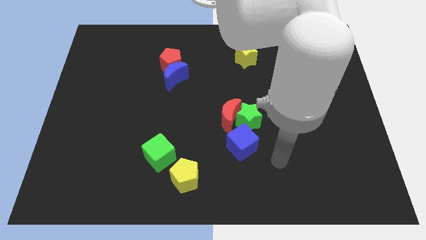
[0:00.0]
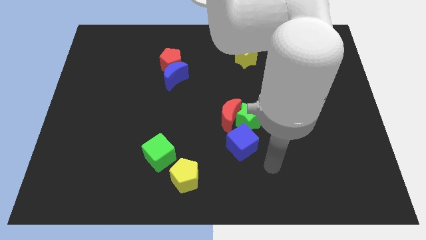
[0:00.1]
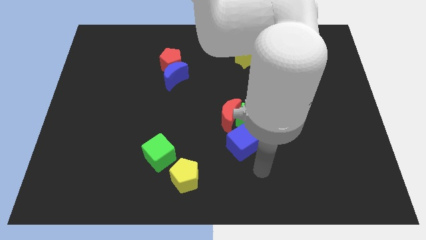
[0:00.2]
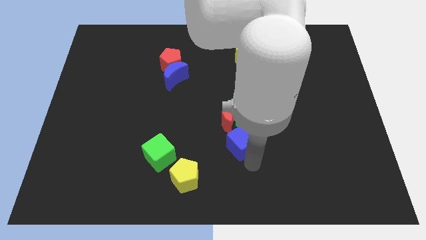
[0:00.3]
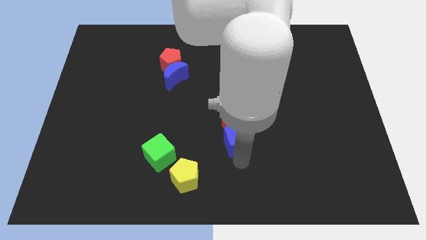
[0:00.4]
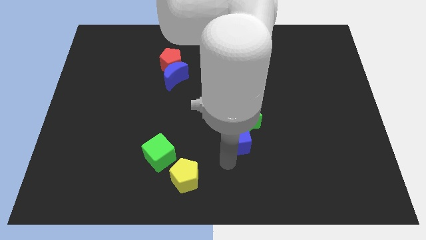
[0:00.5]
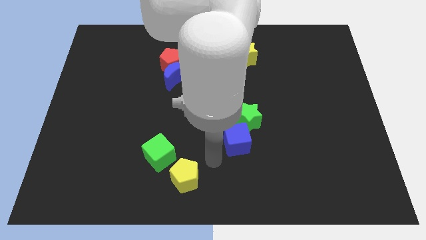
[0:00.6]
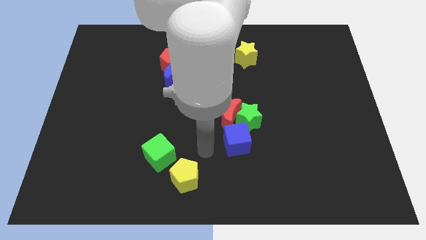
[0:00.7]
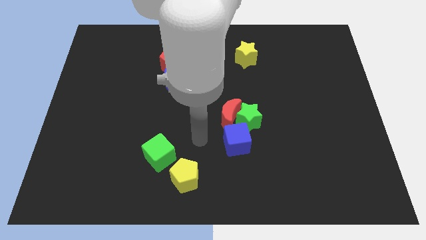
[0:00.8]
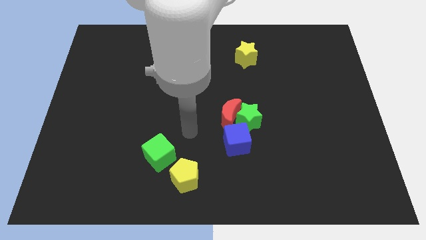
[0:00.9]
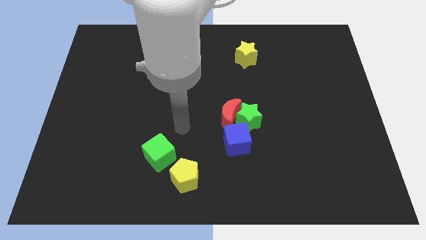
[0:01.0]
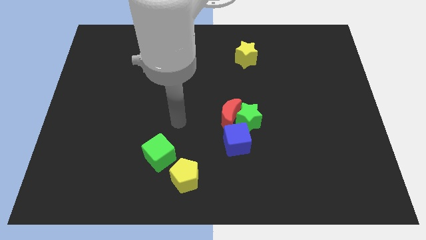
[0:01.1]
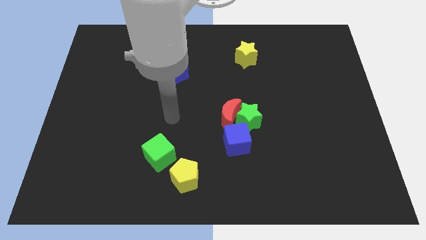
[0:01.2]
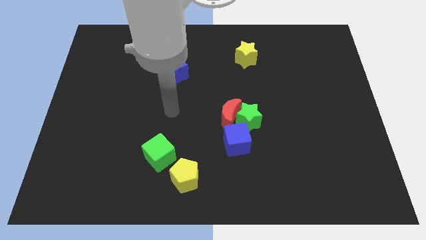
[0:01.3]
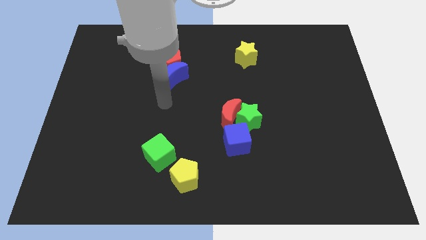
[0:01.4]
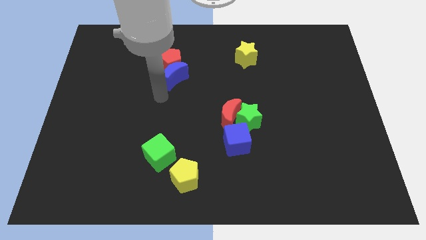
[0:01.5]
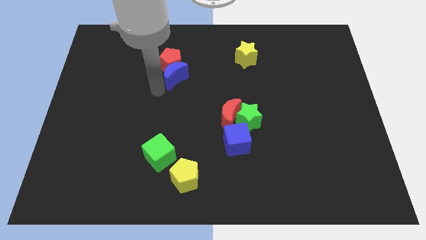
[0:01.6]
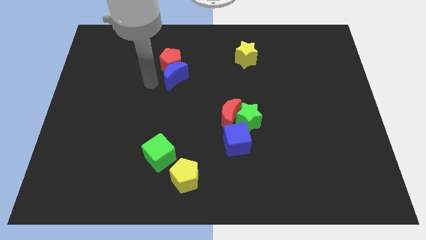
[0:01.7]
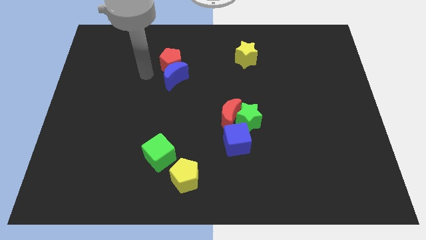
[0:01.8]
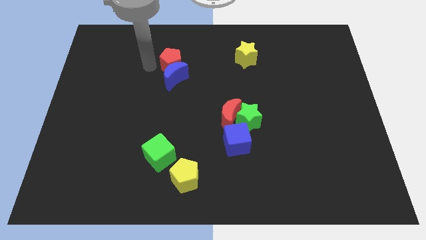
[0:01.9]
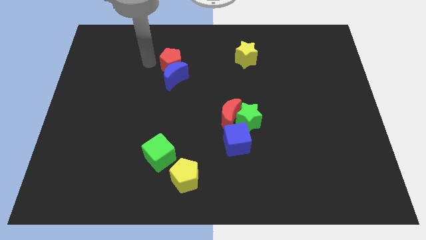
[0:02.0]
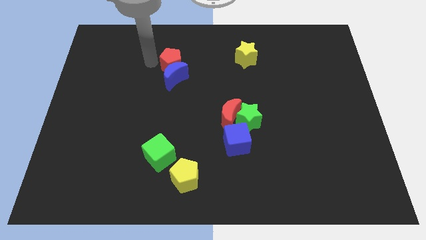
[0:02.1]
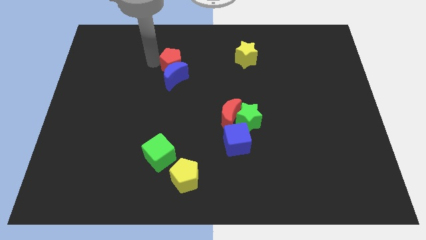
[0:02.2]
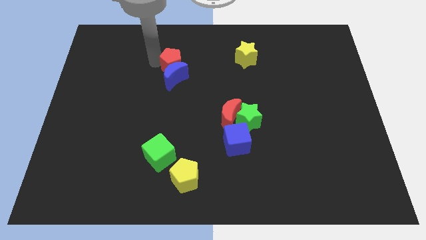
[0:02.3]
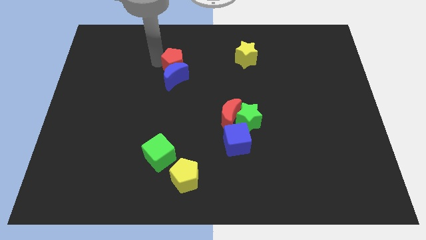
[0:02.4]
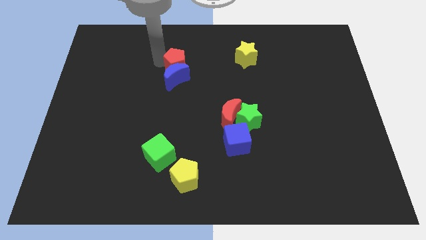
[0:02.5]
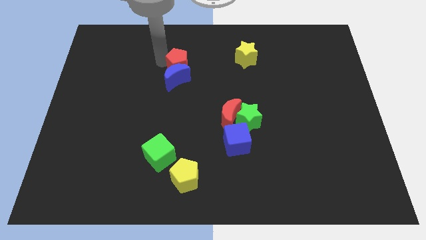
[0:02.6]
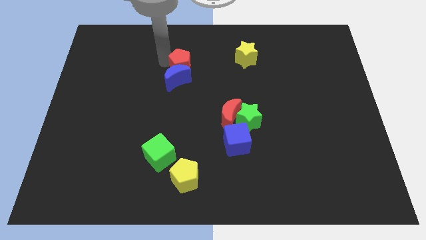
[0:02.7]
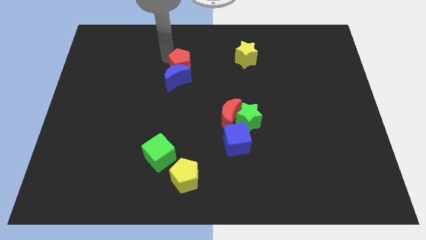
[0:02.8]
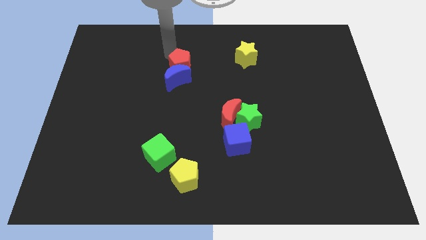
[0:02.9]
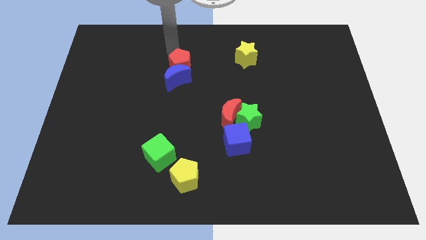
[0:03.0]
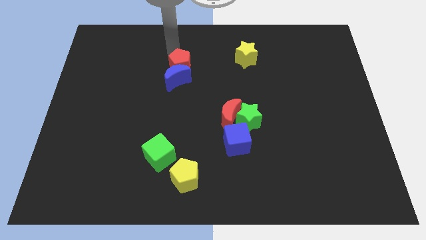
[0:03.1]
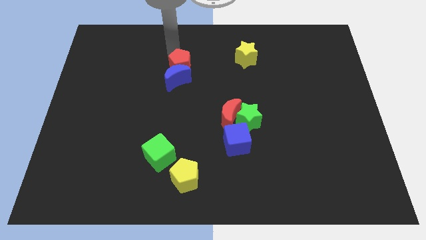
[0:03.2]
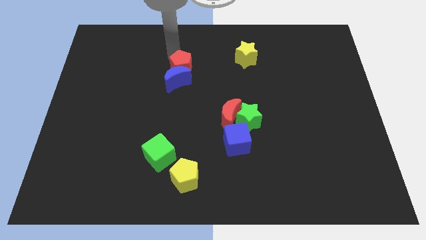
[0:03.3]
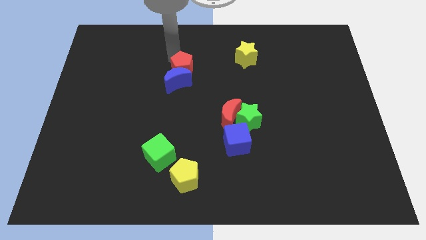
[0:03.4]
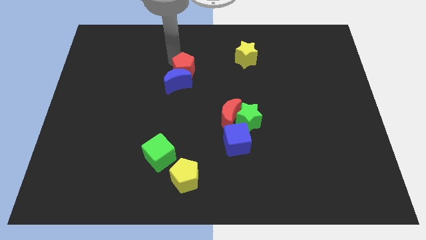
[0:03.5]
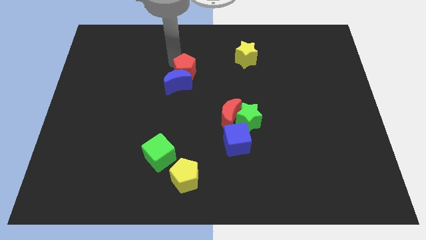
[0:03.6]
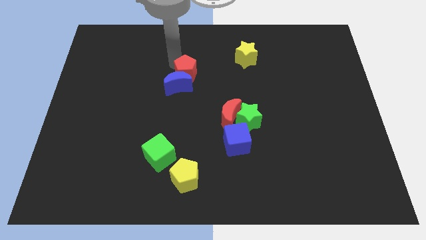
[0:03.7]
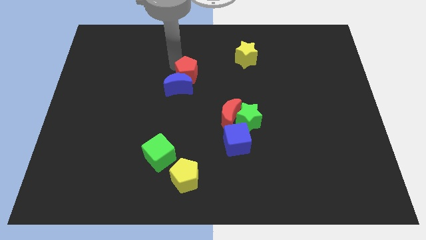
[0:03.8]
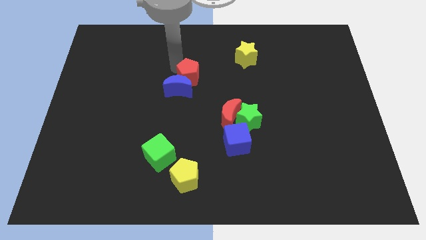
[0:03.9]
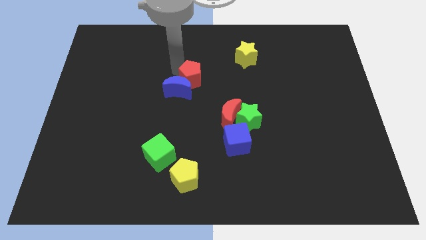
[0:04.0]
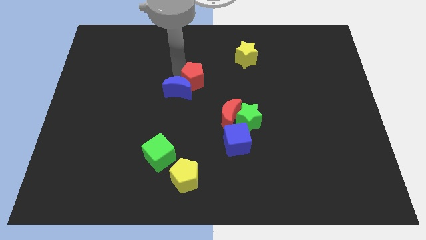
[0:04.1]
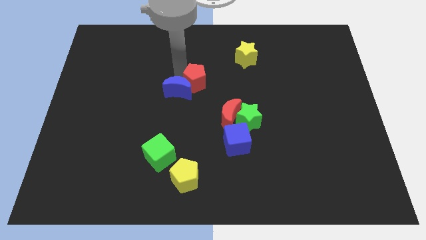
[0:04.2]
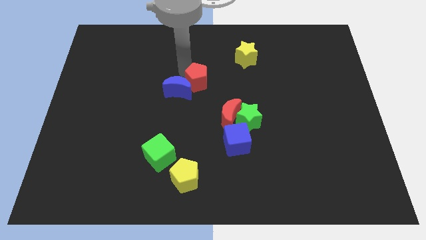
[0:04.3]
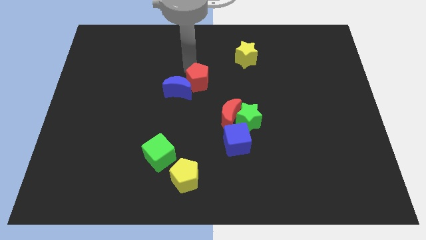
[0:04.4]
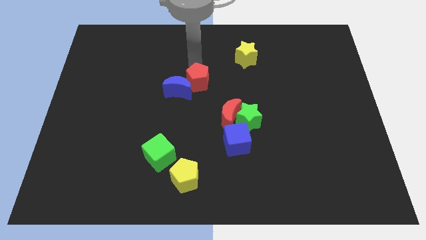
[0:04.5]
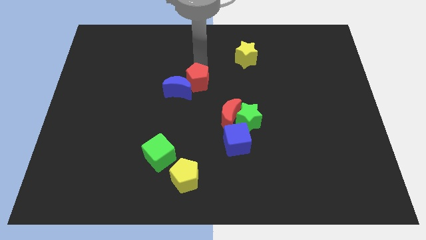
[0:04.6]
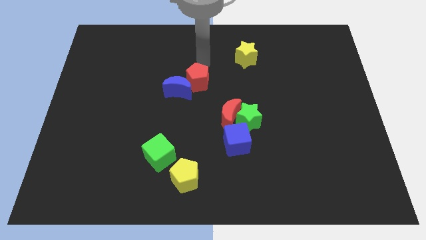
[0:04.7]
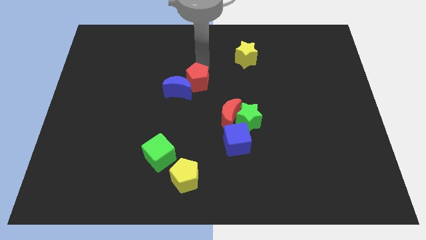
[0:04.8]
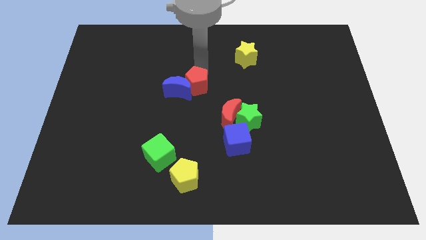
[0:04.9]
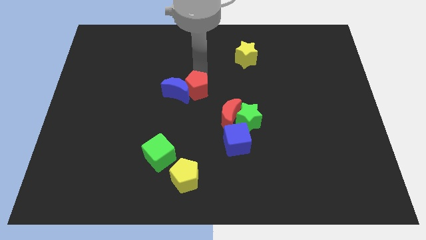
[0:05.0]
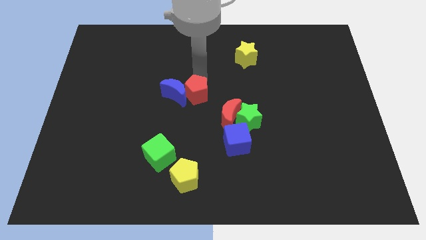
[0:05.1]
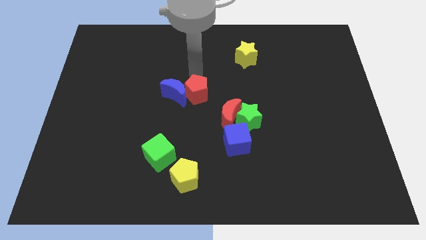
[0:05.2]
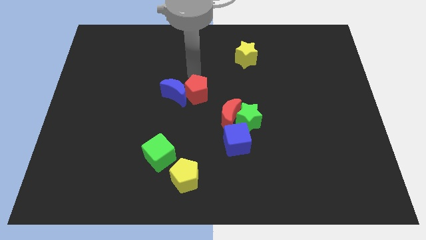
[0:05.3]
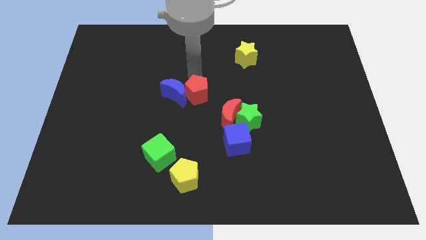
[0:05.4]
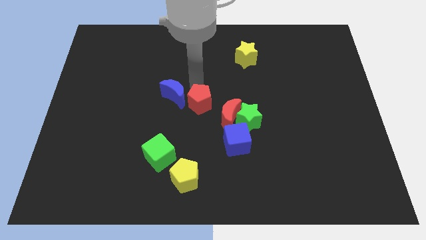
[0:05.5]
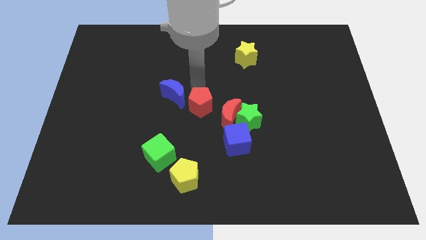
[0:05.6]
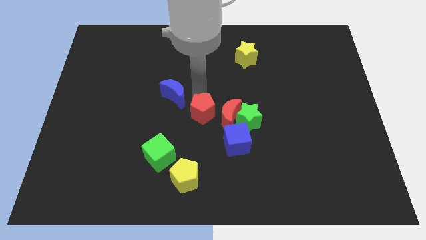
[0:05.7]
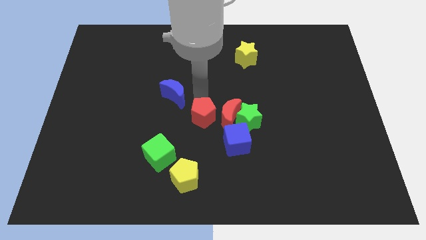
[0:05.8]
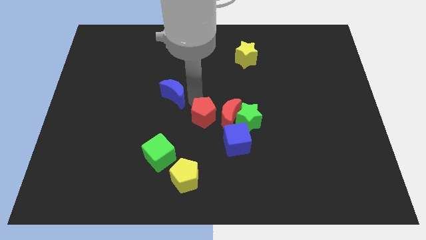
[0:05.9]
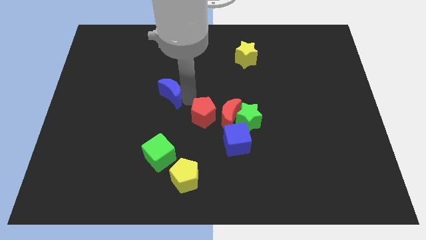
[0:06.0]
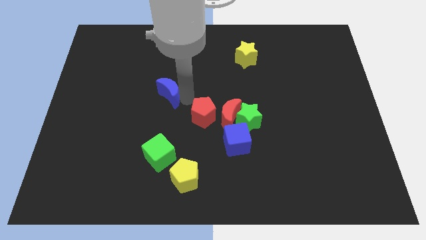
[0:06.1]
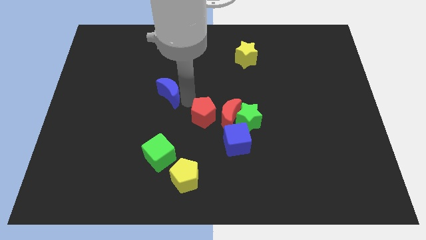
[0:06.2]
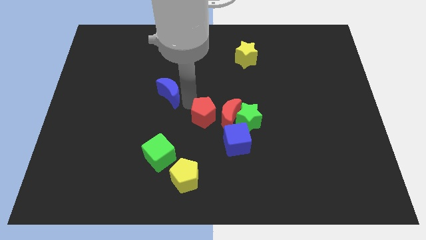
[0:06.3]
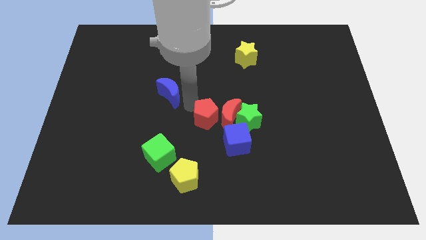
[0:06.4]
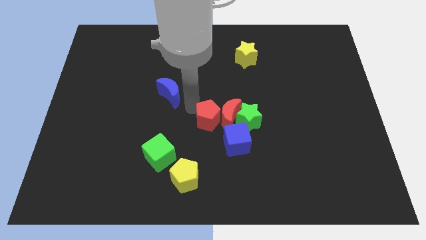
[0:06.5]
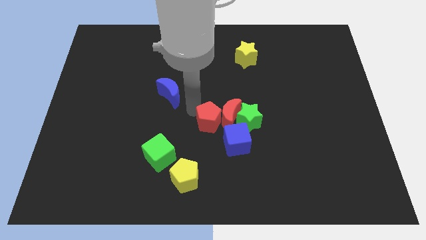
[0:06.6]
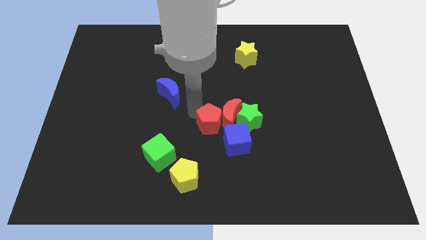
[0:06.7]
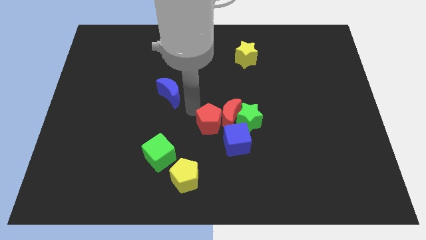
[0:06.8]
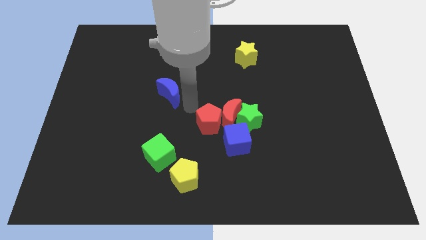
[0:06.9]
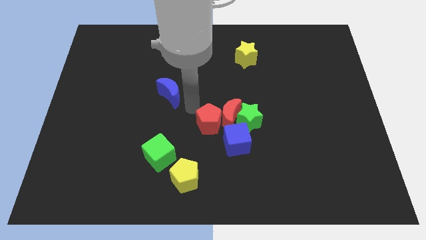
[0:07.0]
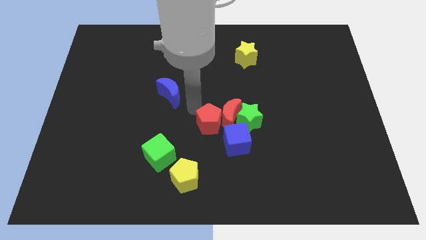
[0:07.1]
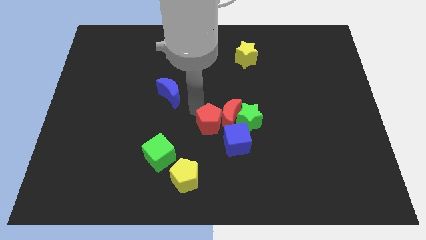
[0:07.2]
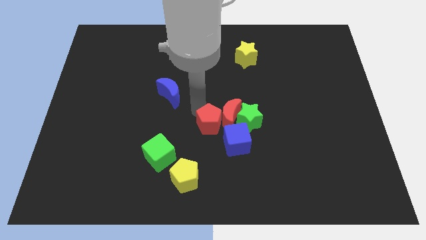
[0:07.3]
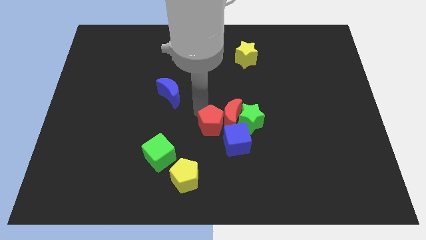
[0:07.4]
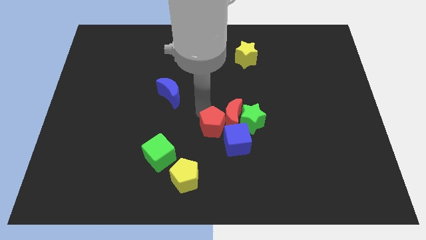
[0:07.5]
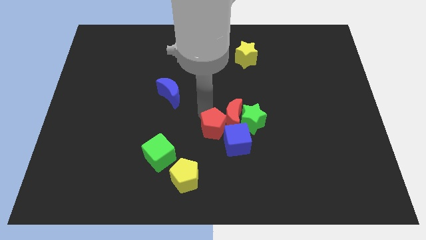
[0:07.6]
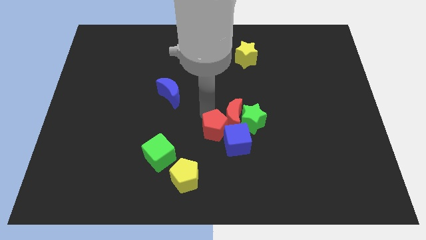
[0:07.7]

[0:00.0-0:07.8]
push the red pentagon close to the blue cube
